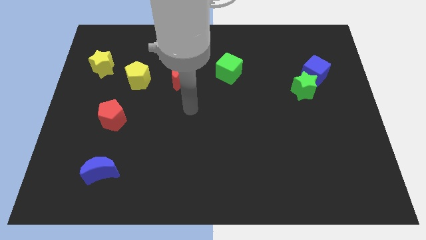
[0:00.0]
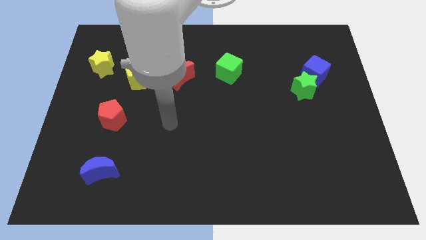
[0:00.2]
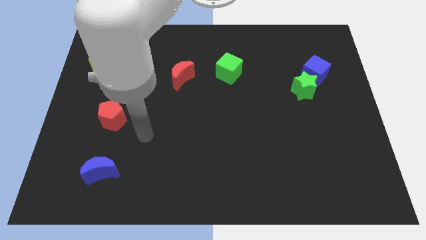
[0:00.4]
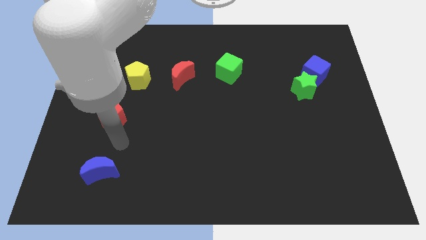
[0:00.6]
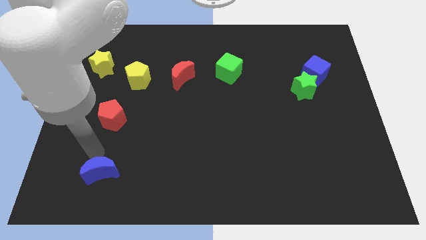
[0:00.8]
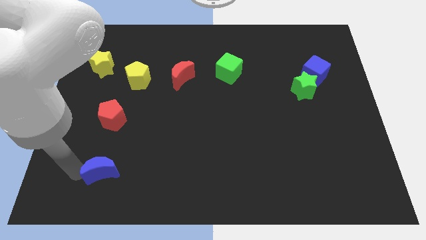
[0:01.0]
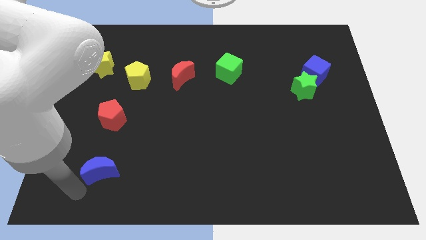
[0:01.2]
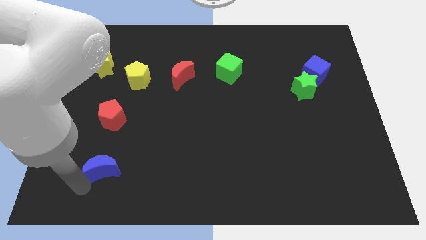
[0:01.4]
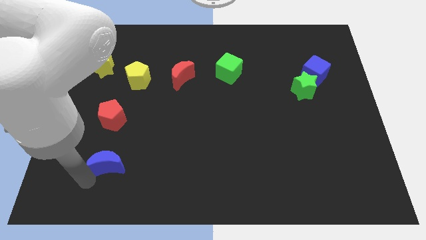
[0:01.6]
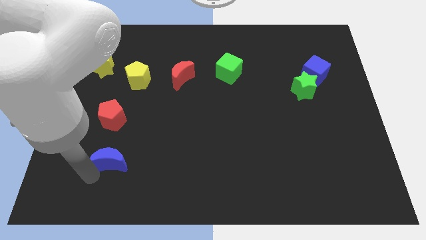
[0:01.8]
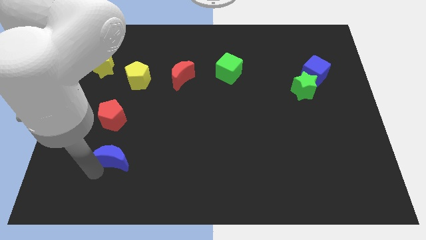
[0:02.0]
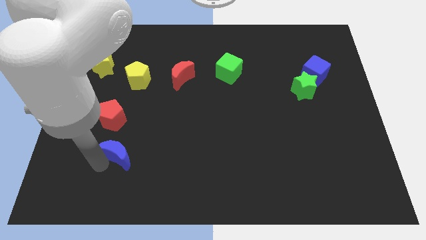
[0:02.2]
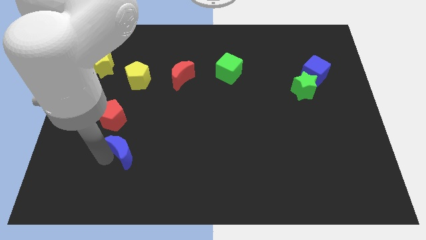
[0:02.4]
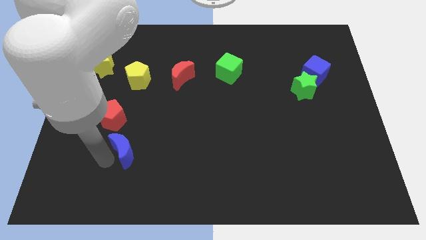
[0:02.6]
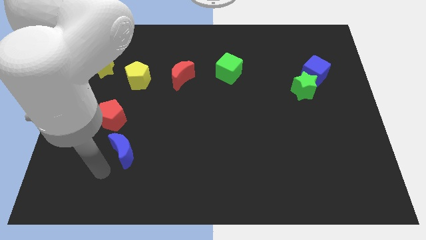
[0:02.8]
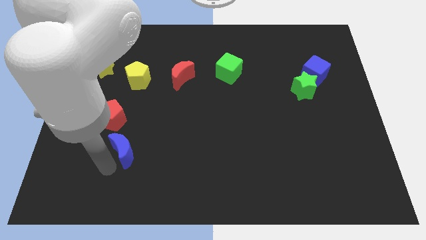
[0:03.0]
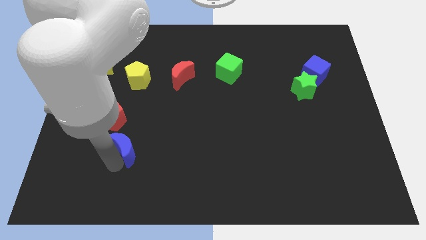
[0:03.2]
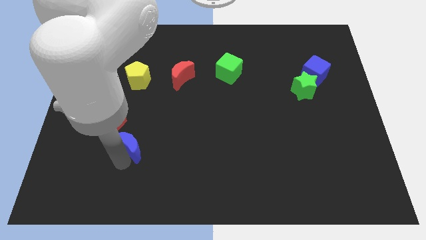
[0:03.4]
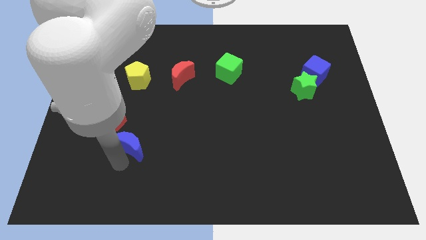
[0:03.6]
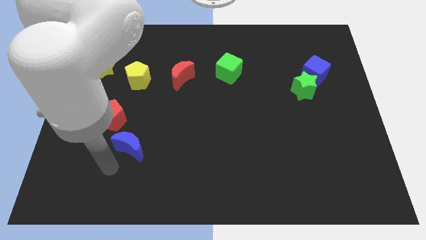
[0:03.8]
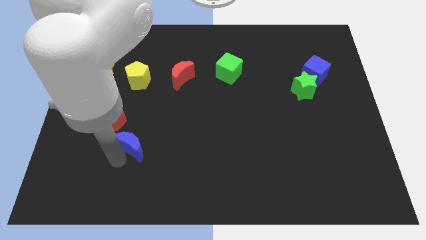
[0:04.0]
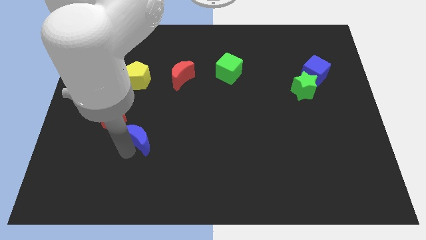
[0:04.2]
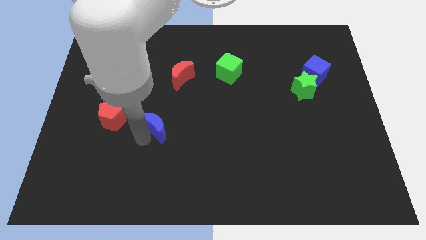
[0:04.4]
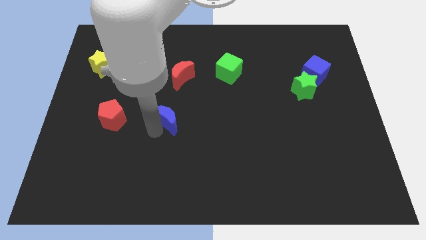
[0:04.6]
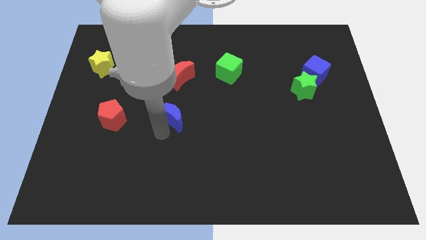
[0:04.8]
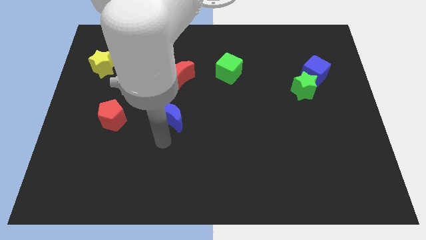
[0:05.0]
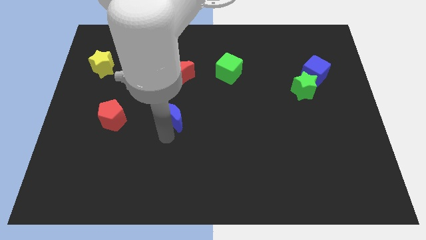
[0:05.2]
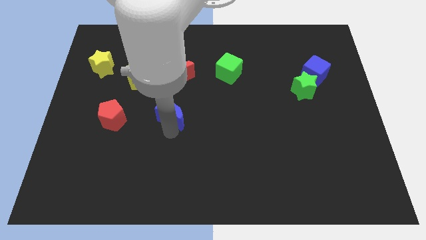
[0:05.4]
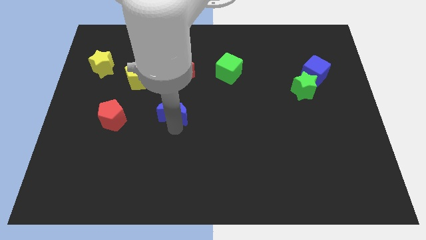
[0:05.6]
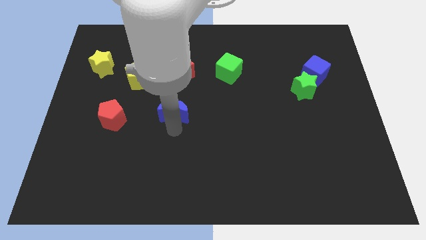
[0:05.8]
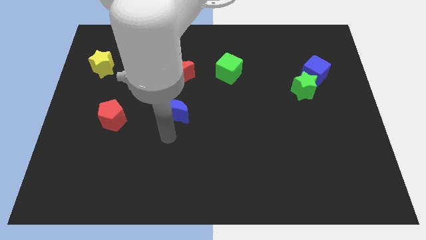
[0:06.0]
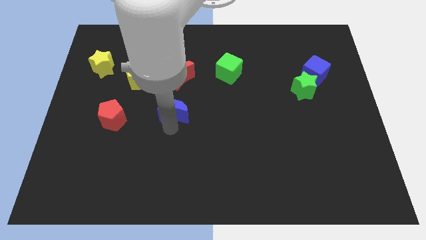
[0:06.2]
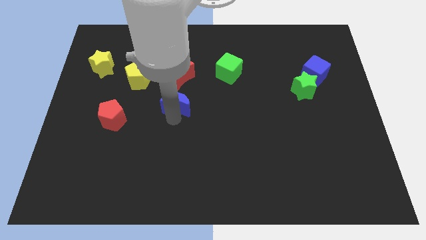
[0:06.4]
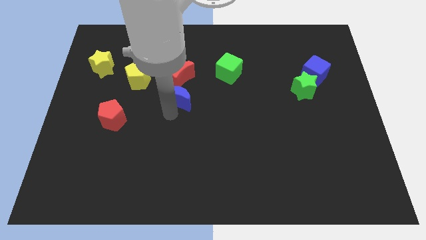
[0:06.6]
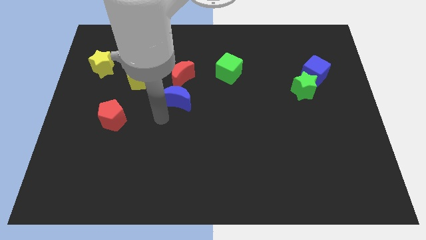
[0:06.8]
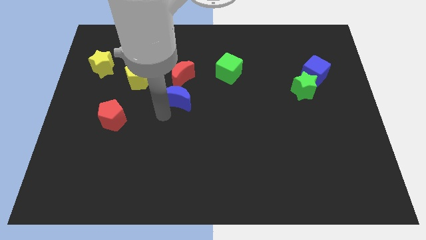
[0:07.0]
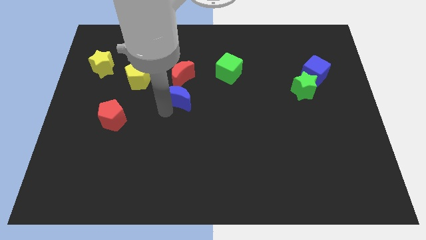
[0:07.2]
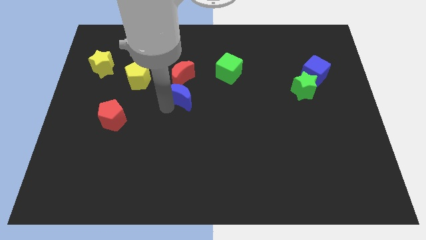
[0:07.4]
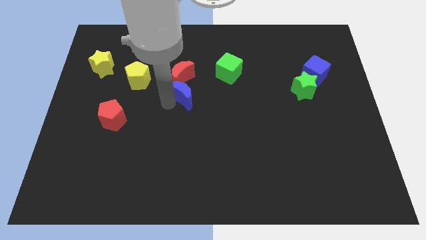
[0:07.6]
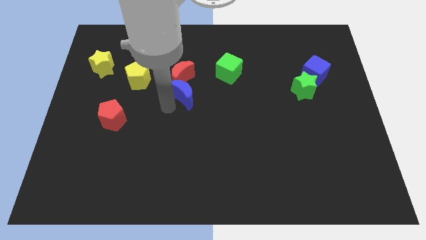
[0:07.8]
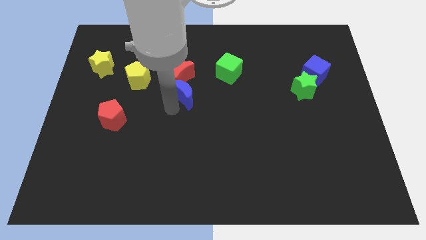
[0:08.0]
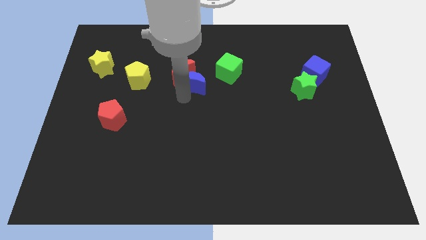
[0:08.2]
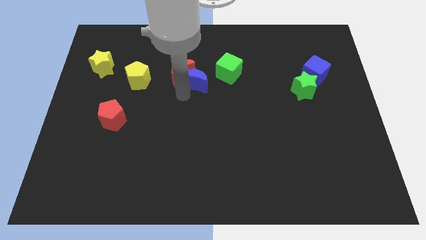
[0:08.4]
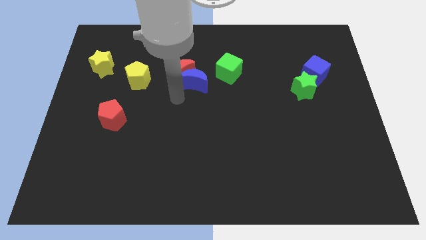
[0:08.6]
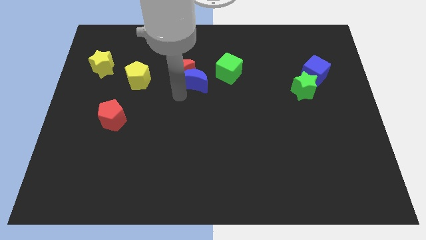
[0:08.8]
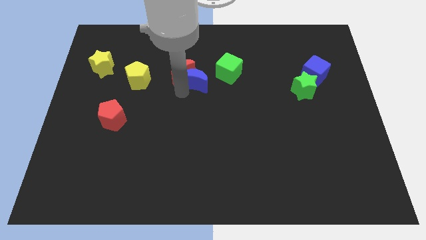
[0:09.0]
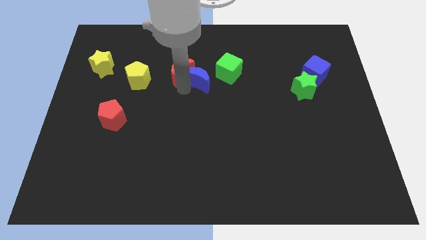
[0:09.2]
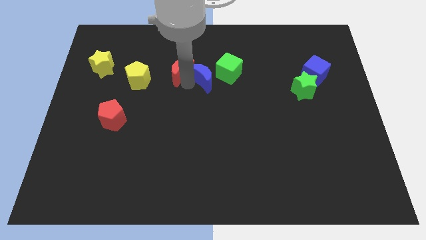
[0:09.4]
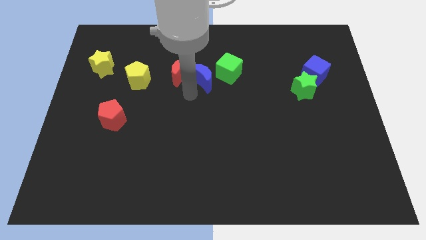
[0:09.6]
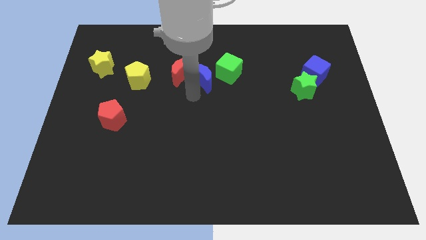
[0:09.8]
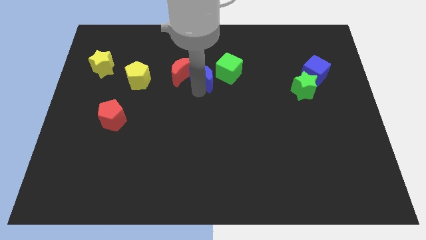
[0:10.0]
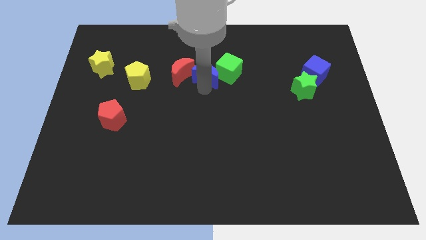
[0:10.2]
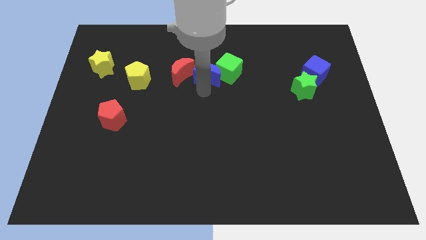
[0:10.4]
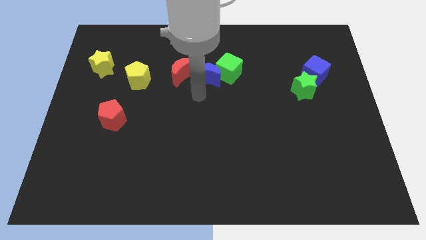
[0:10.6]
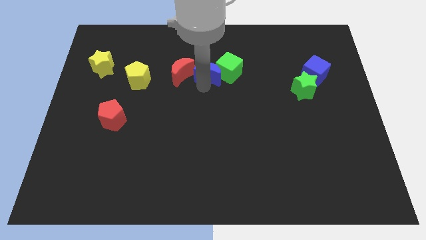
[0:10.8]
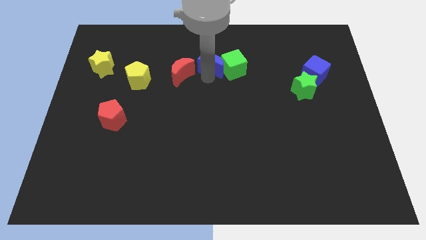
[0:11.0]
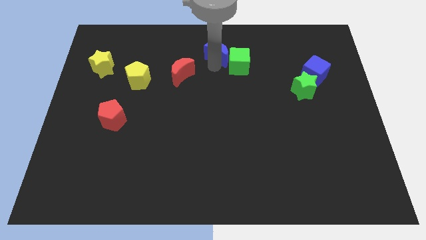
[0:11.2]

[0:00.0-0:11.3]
put the blue moon to the top side

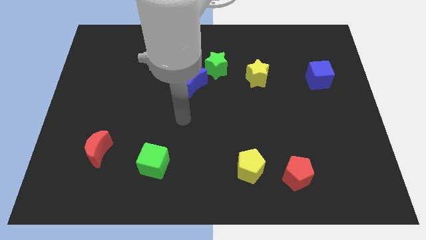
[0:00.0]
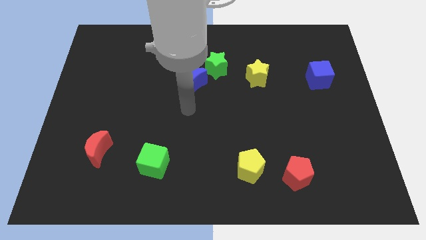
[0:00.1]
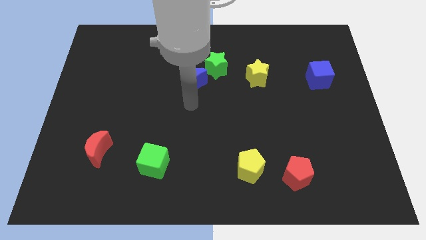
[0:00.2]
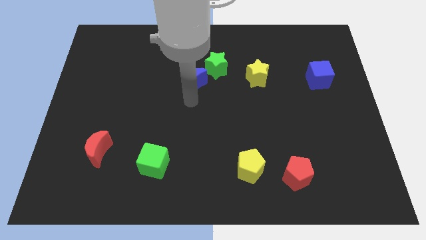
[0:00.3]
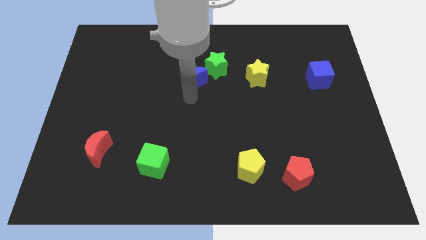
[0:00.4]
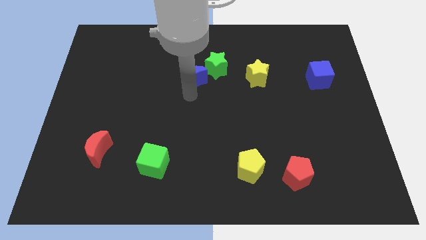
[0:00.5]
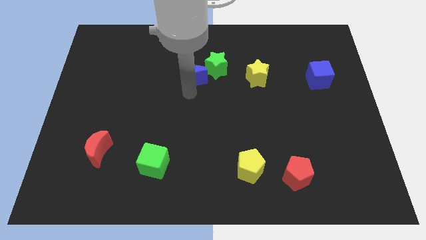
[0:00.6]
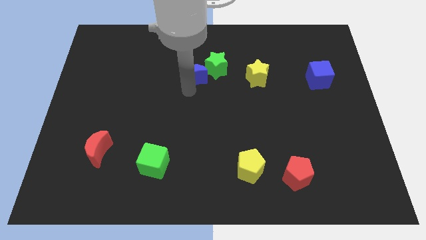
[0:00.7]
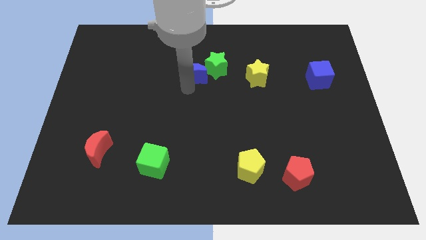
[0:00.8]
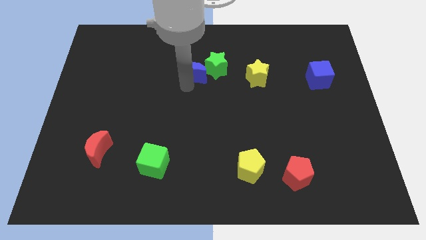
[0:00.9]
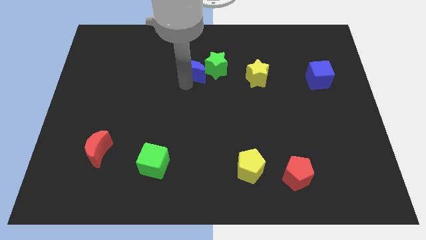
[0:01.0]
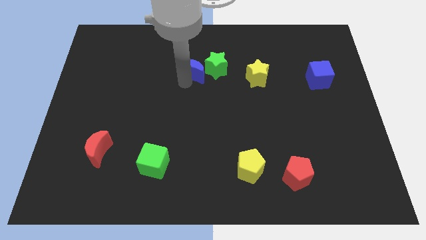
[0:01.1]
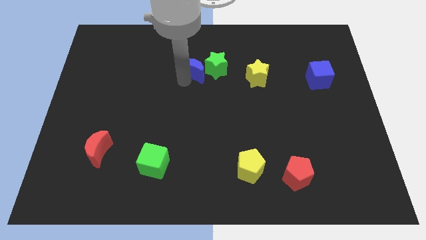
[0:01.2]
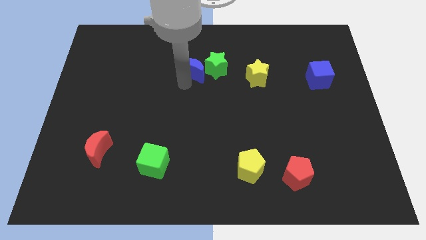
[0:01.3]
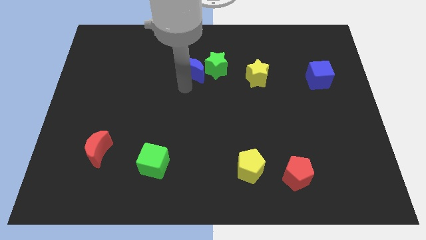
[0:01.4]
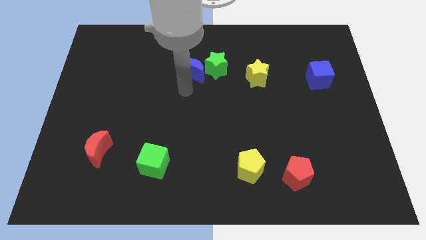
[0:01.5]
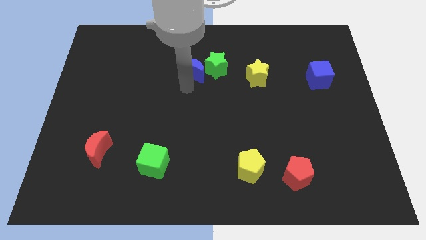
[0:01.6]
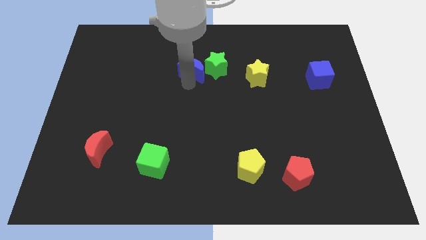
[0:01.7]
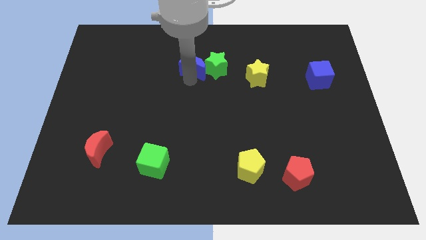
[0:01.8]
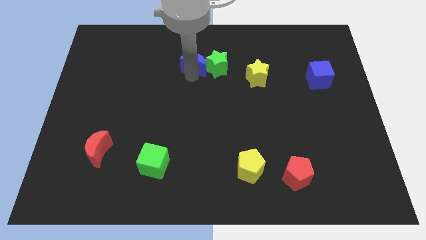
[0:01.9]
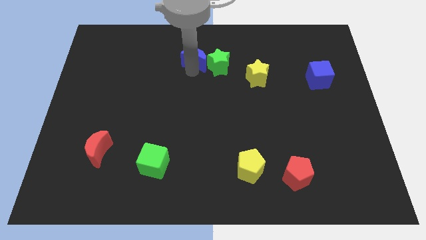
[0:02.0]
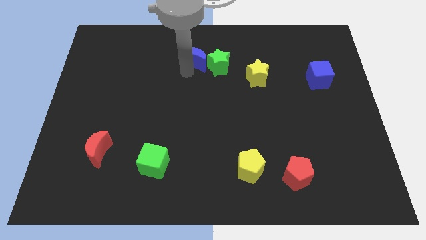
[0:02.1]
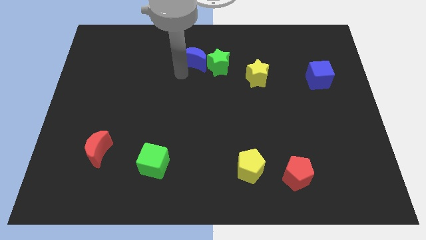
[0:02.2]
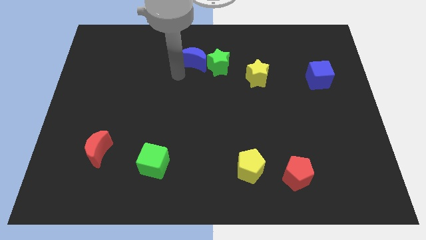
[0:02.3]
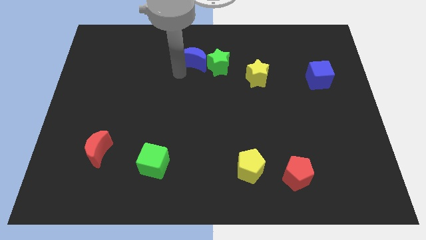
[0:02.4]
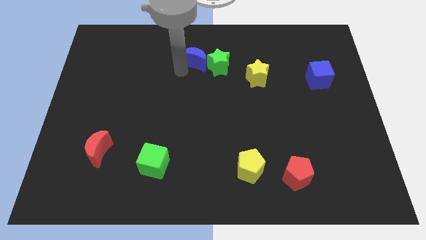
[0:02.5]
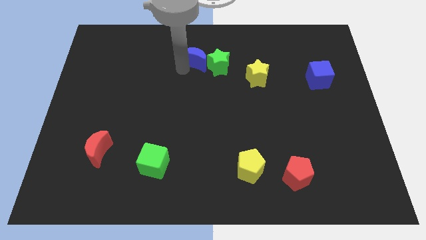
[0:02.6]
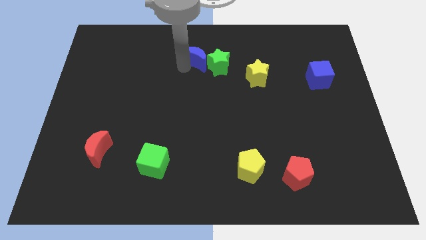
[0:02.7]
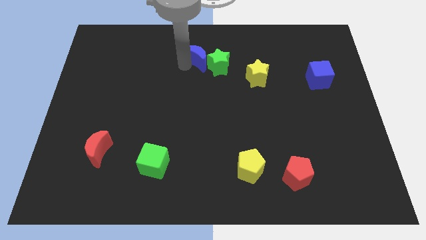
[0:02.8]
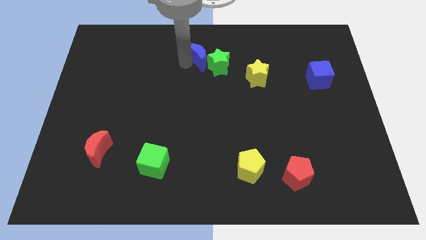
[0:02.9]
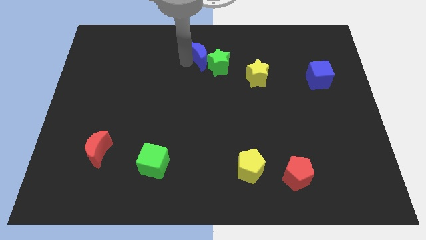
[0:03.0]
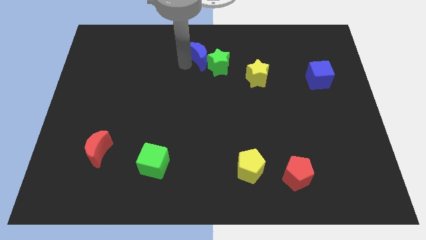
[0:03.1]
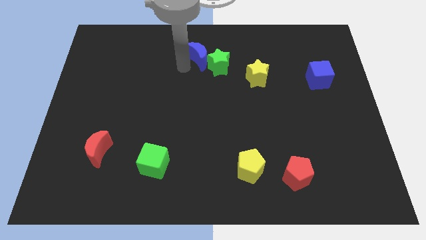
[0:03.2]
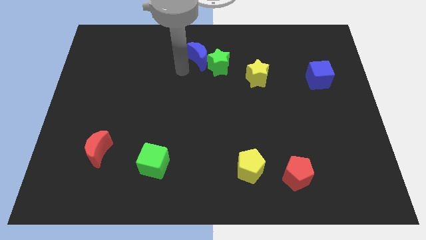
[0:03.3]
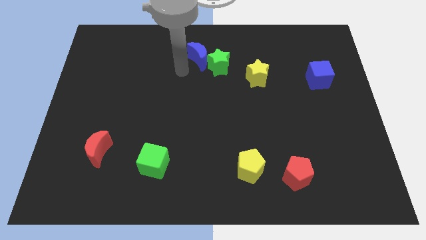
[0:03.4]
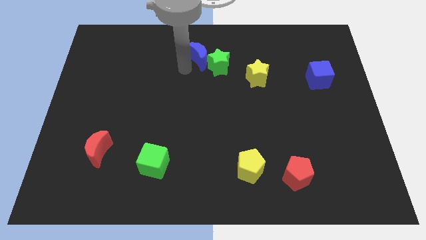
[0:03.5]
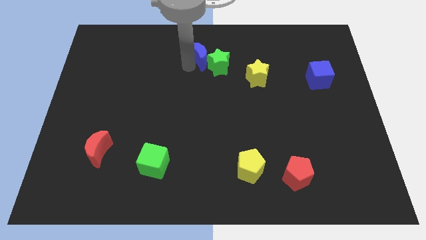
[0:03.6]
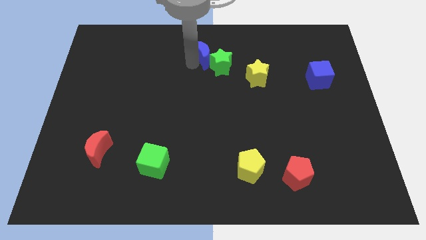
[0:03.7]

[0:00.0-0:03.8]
push the blue moon to the top
